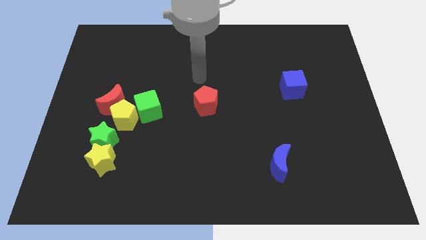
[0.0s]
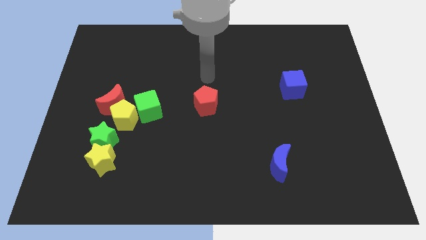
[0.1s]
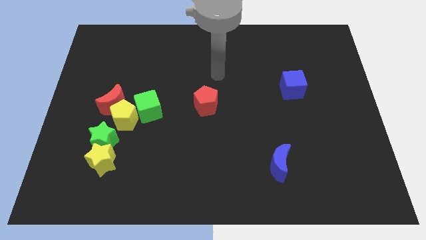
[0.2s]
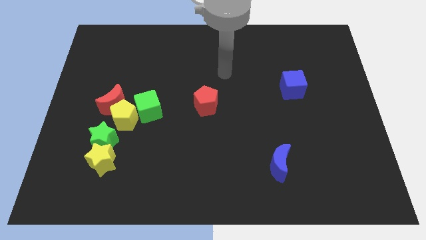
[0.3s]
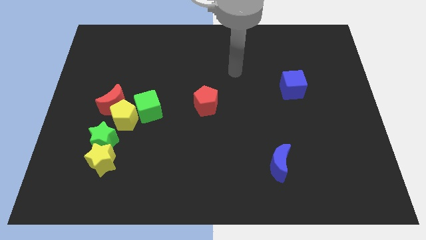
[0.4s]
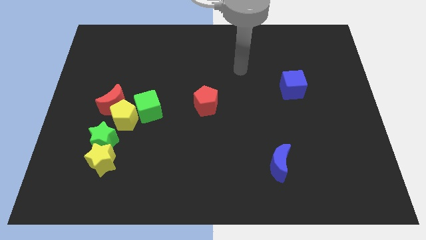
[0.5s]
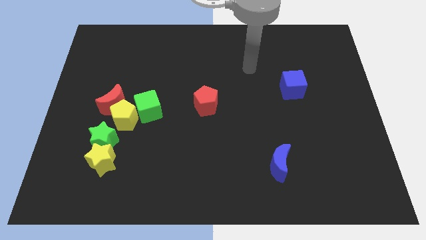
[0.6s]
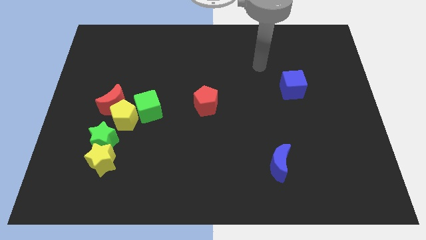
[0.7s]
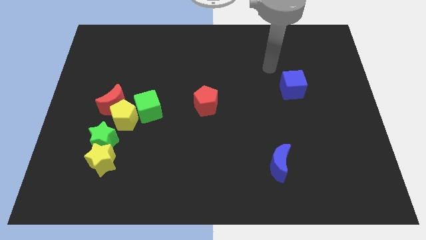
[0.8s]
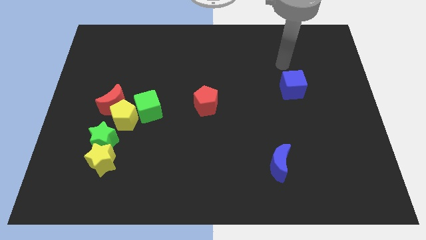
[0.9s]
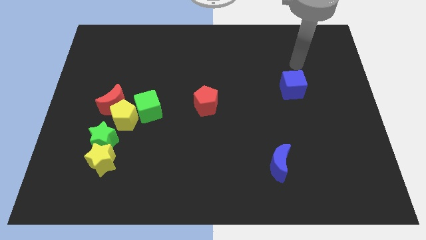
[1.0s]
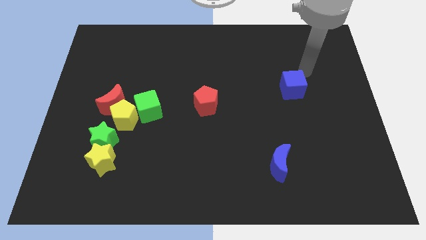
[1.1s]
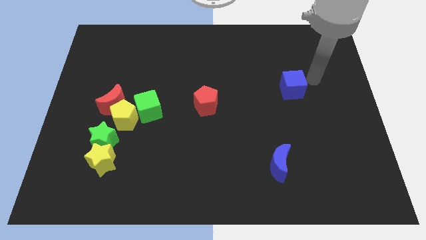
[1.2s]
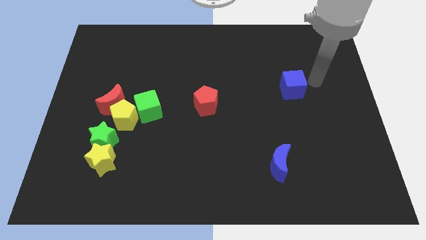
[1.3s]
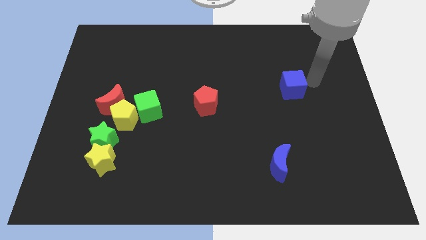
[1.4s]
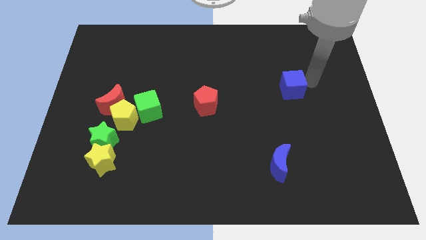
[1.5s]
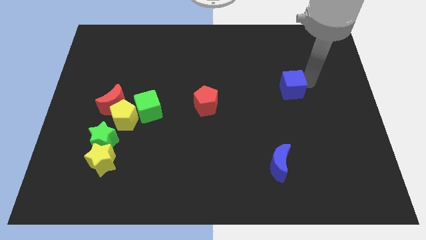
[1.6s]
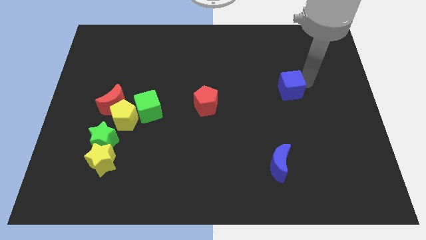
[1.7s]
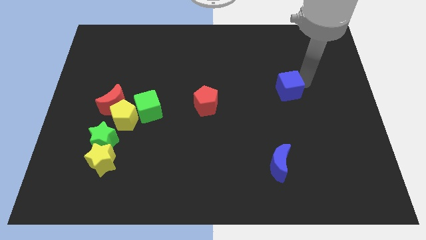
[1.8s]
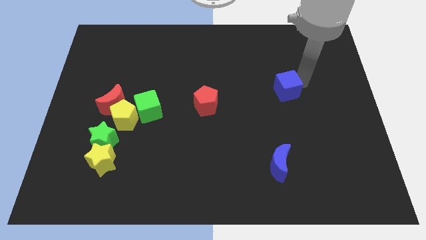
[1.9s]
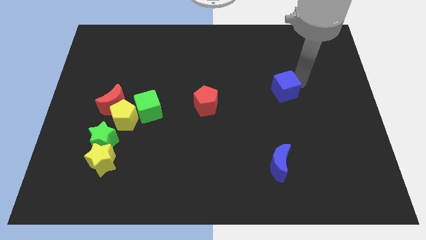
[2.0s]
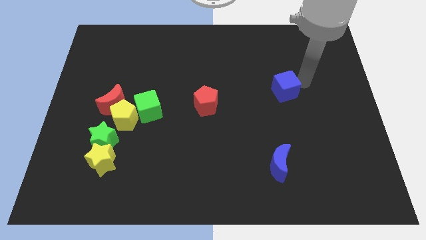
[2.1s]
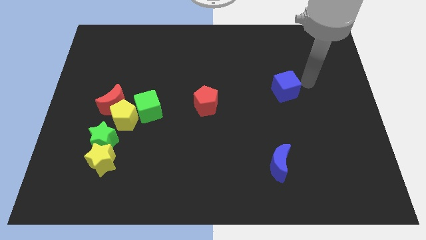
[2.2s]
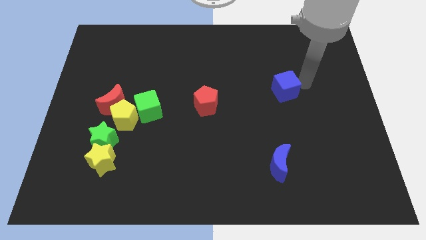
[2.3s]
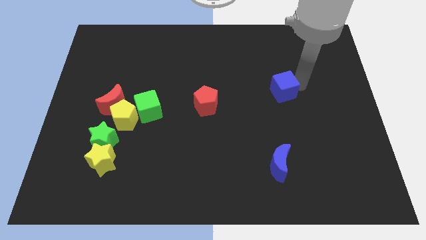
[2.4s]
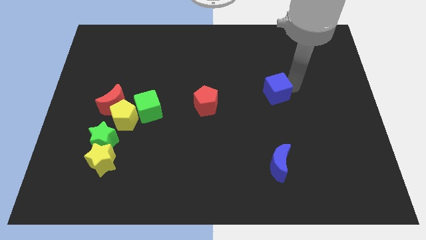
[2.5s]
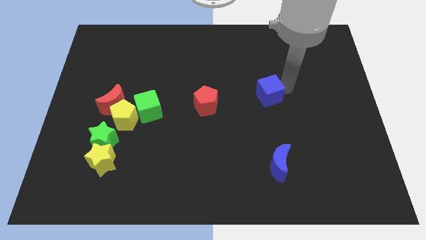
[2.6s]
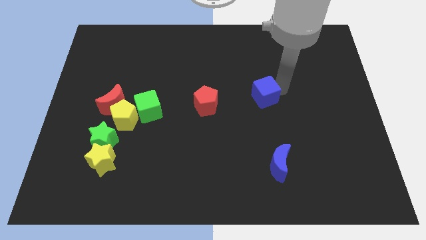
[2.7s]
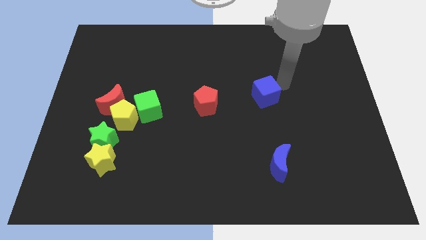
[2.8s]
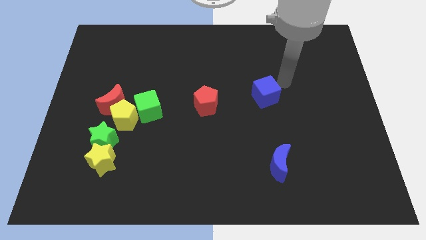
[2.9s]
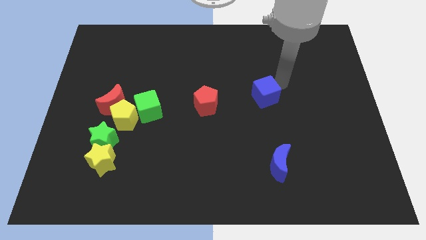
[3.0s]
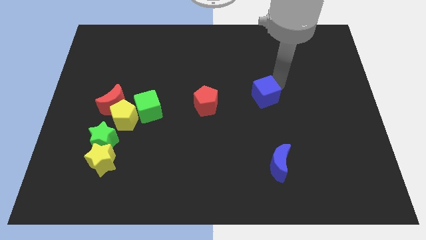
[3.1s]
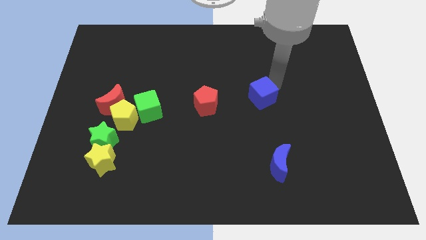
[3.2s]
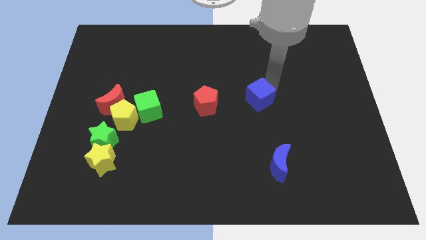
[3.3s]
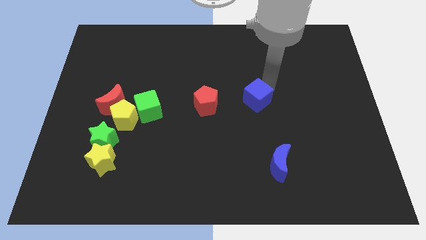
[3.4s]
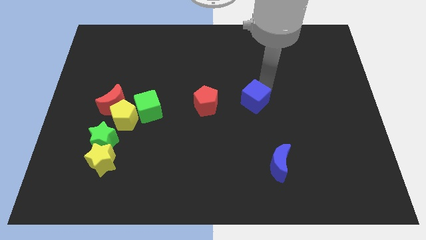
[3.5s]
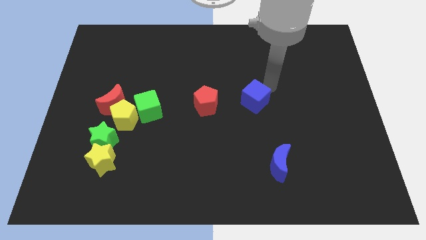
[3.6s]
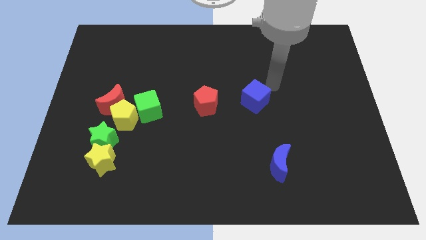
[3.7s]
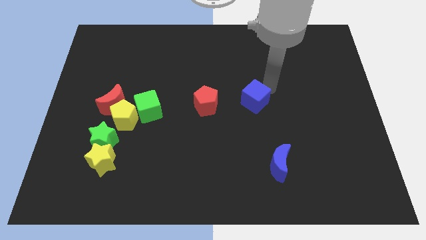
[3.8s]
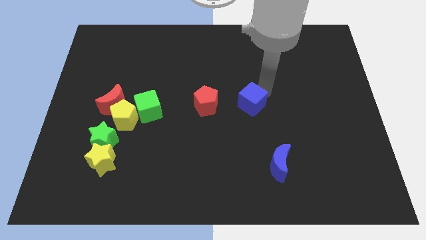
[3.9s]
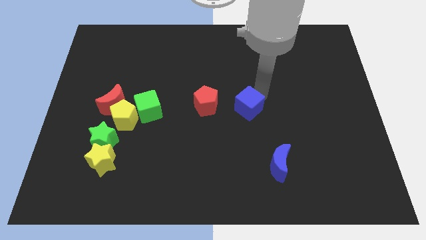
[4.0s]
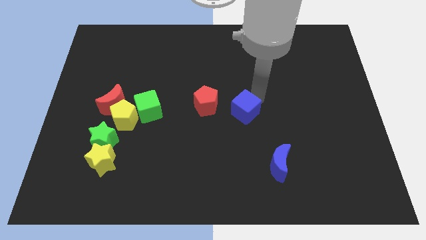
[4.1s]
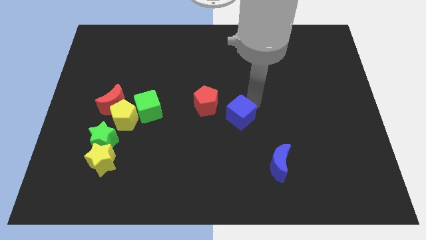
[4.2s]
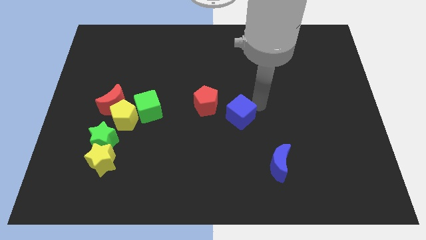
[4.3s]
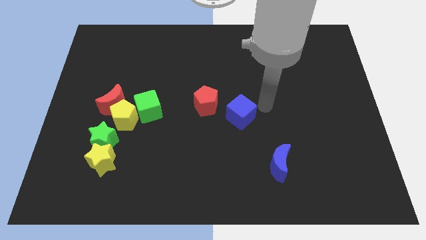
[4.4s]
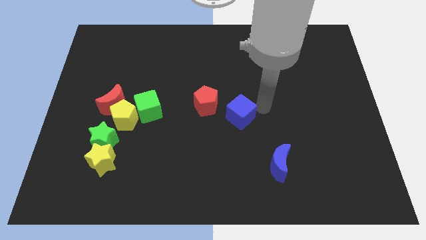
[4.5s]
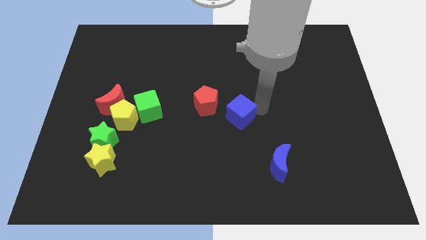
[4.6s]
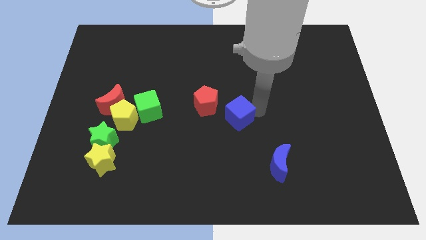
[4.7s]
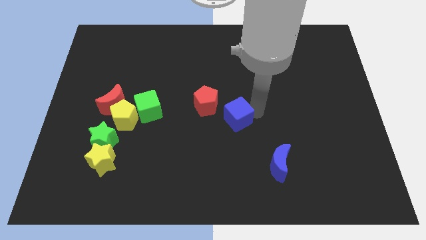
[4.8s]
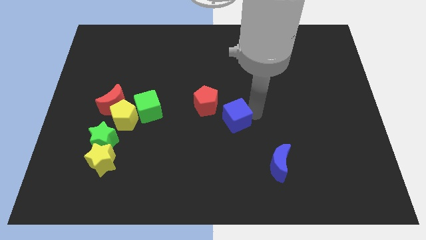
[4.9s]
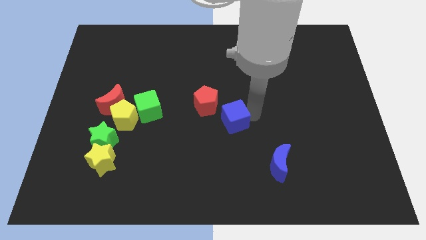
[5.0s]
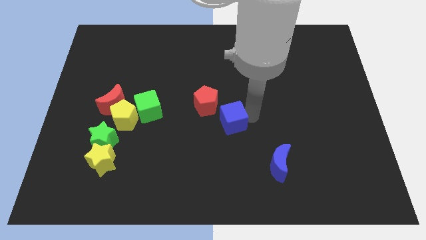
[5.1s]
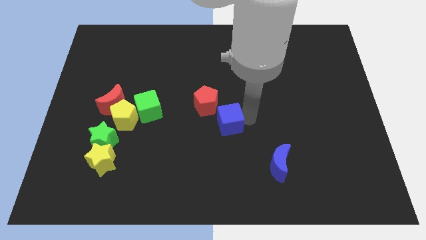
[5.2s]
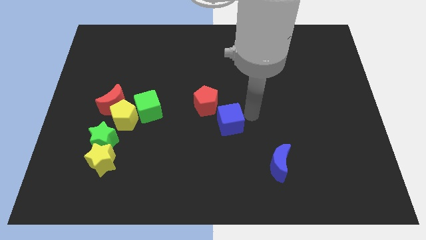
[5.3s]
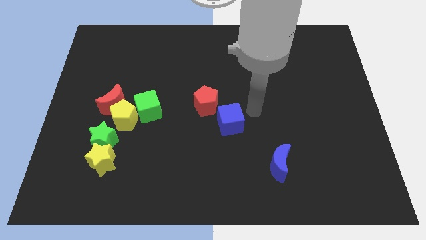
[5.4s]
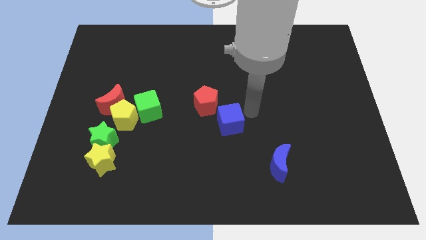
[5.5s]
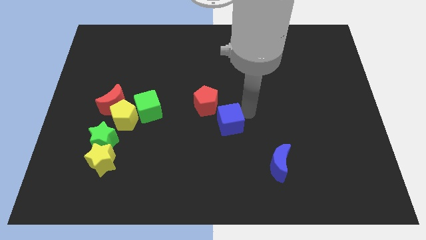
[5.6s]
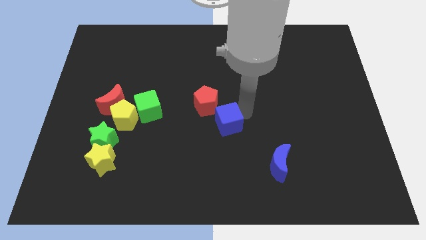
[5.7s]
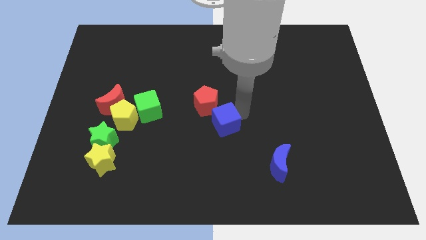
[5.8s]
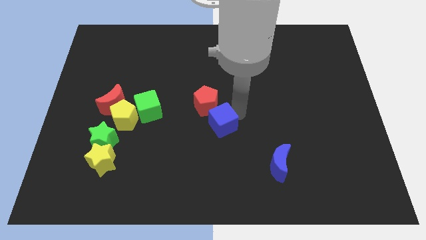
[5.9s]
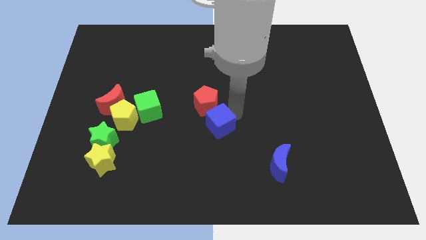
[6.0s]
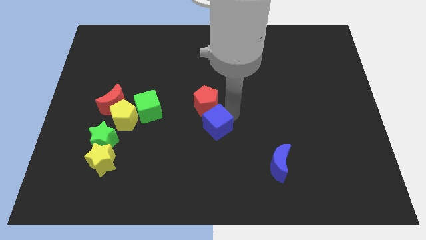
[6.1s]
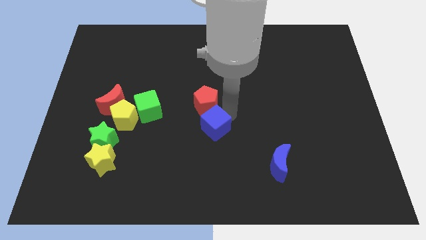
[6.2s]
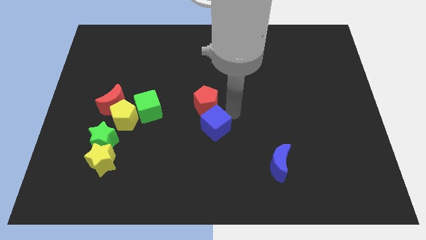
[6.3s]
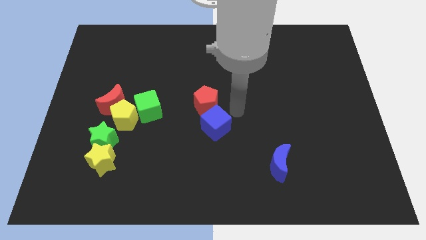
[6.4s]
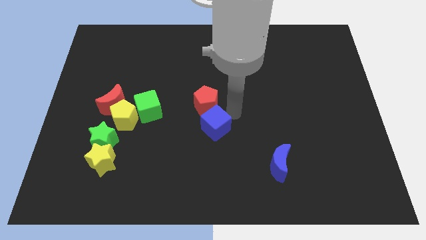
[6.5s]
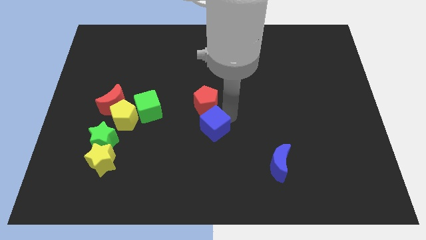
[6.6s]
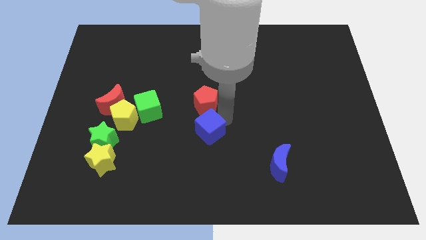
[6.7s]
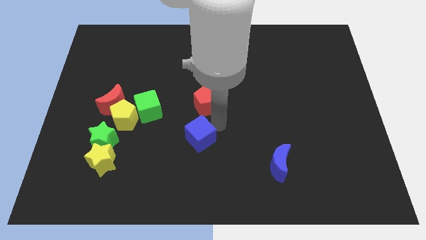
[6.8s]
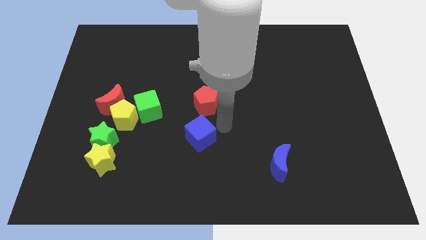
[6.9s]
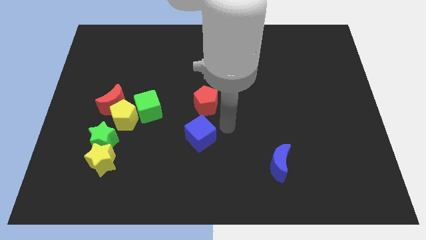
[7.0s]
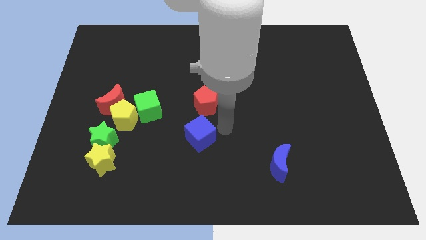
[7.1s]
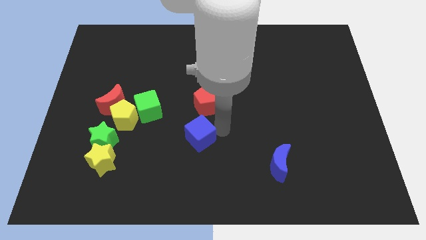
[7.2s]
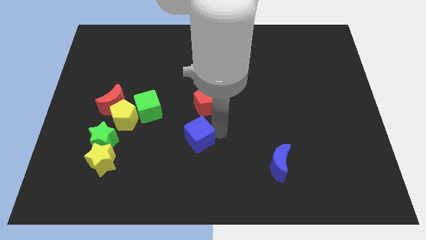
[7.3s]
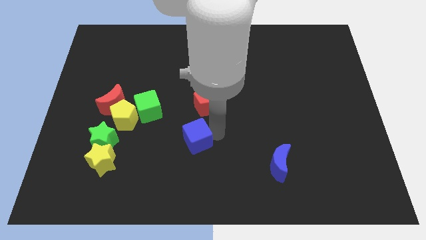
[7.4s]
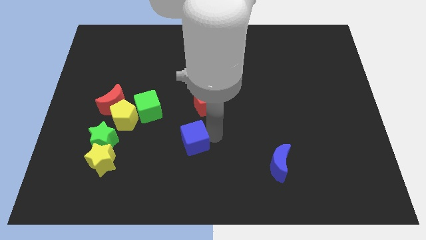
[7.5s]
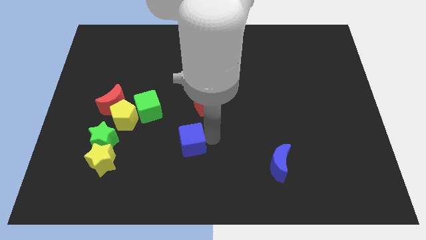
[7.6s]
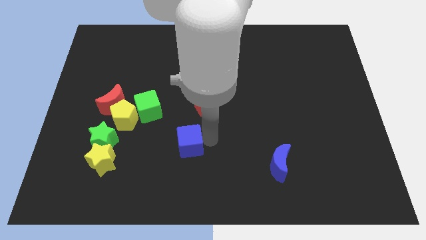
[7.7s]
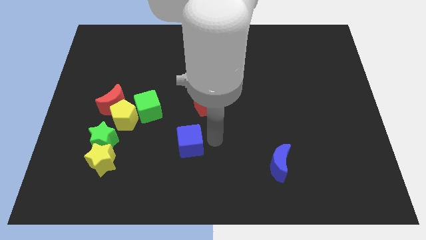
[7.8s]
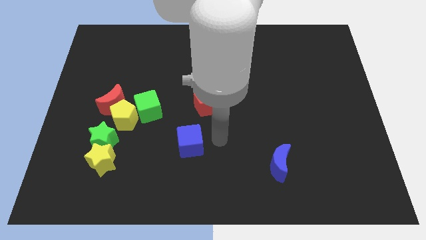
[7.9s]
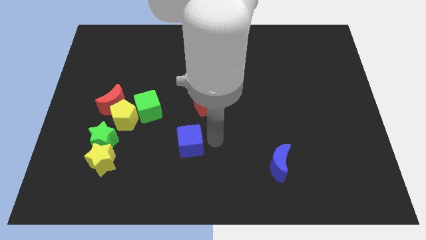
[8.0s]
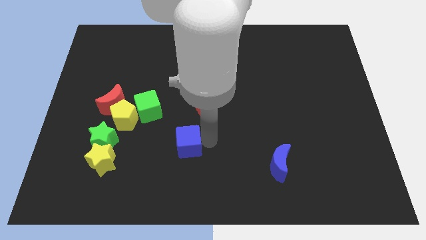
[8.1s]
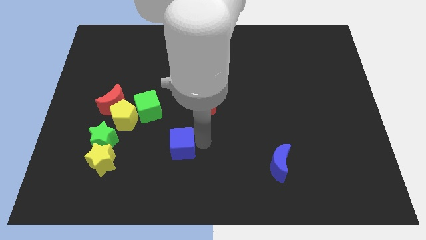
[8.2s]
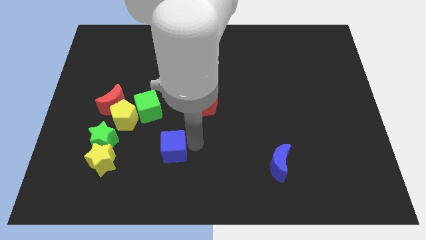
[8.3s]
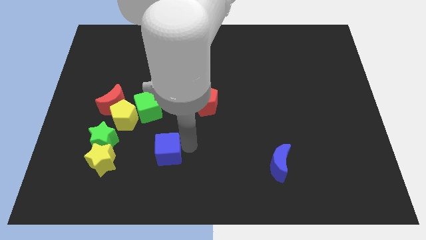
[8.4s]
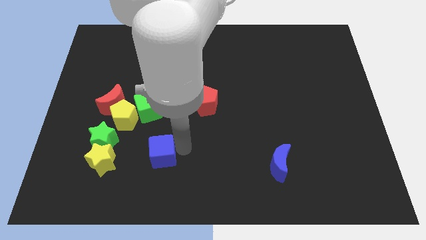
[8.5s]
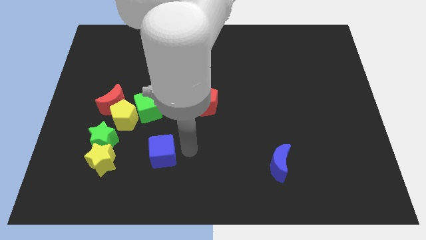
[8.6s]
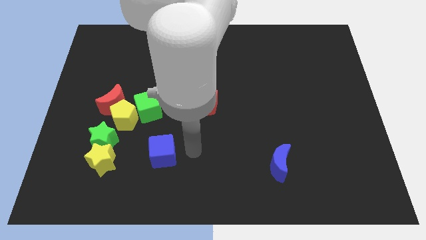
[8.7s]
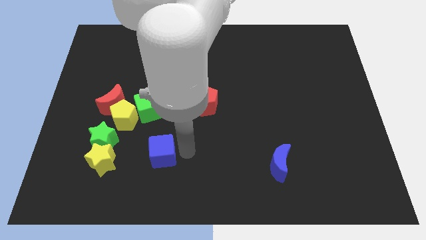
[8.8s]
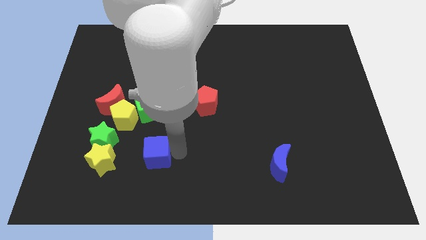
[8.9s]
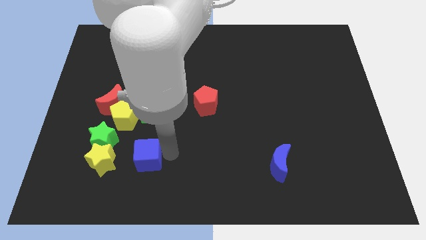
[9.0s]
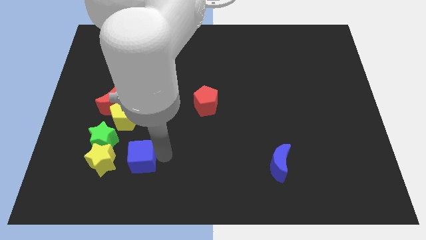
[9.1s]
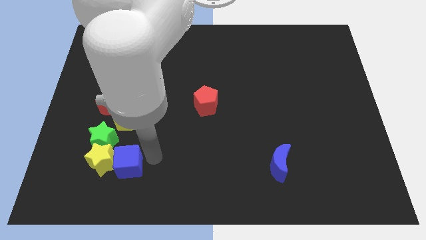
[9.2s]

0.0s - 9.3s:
slide the blue cube close to the yellow star
